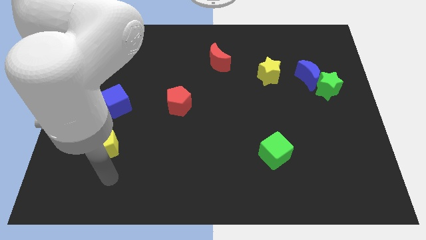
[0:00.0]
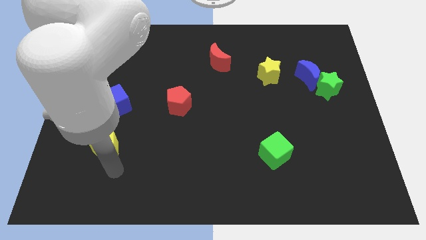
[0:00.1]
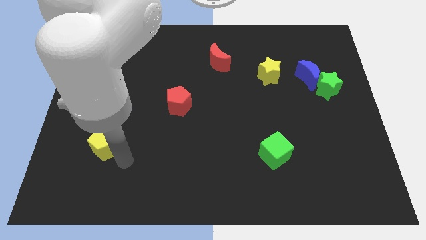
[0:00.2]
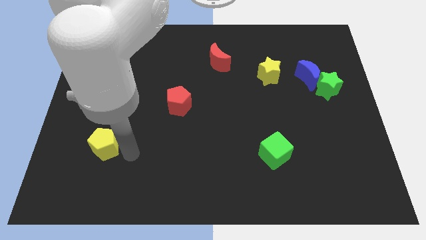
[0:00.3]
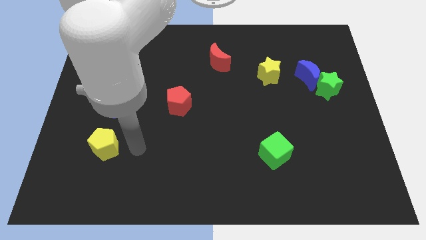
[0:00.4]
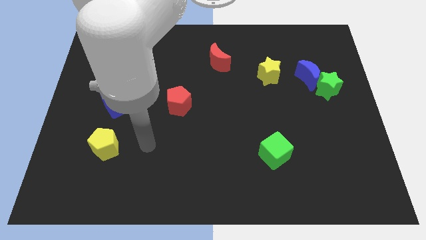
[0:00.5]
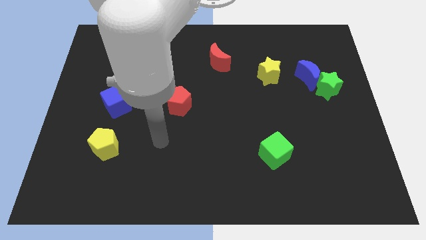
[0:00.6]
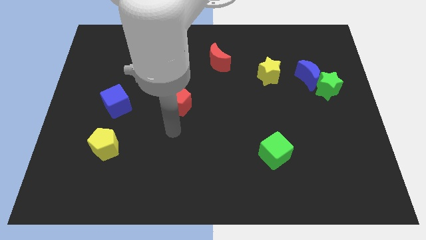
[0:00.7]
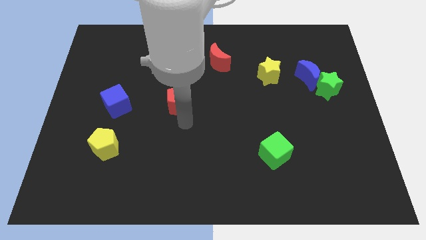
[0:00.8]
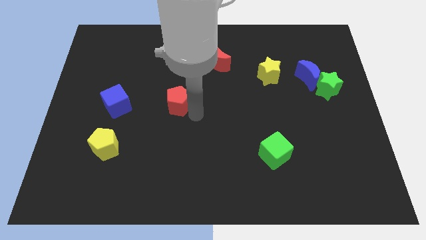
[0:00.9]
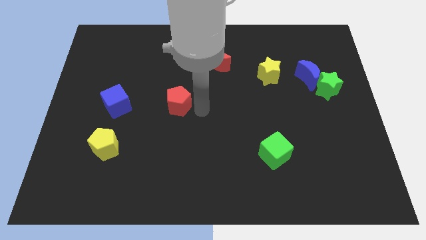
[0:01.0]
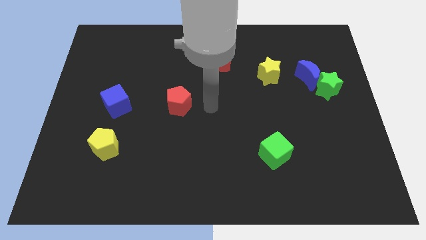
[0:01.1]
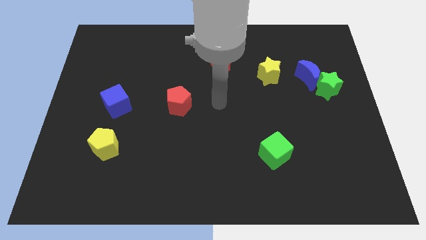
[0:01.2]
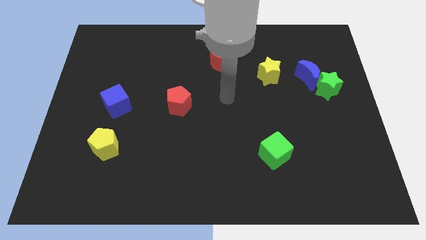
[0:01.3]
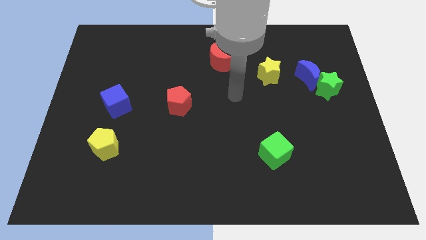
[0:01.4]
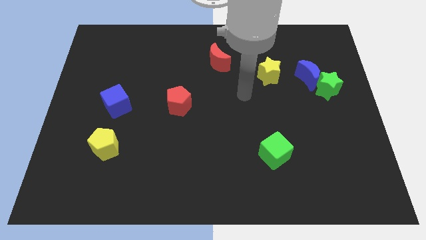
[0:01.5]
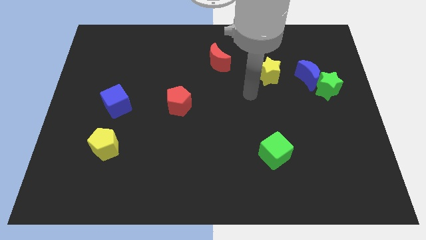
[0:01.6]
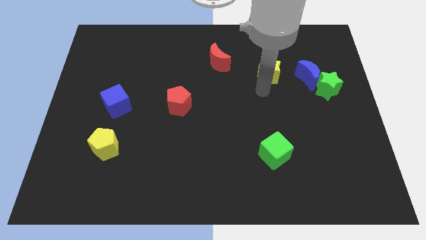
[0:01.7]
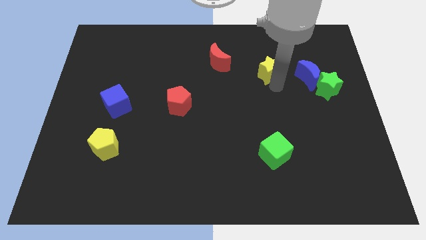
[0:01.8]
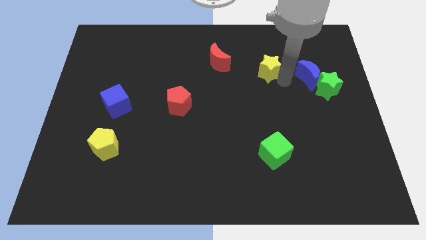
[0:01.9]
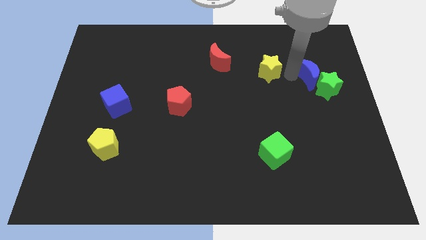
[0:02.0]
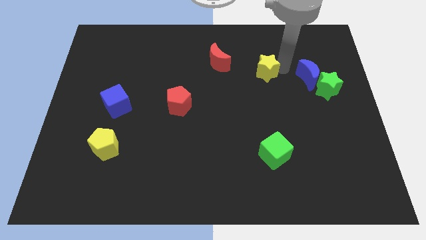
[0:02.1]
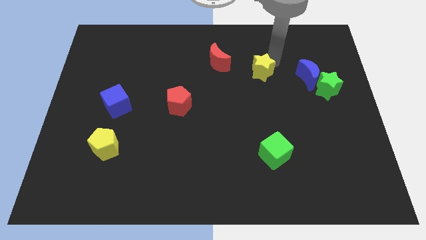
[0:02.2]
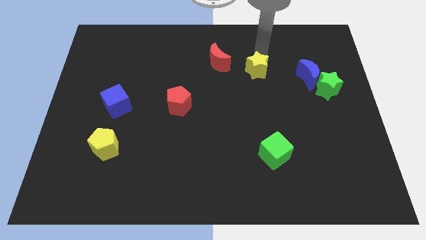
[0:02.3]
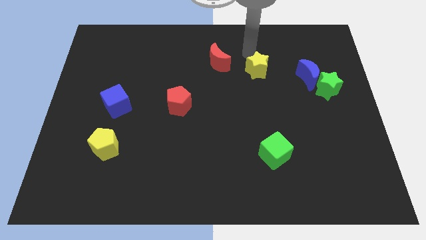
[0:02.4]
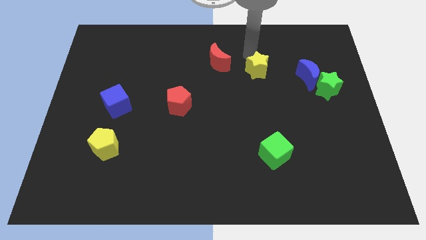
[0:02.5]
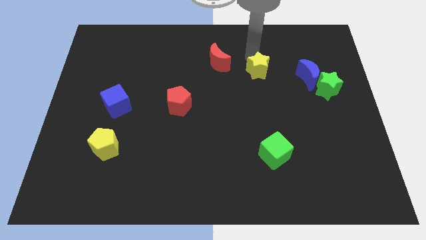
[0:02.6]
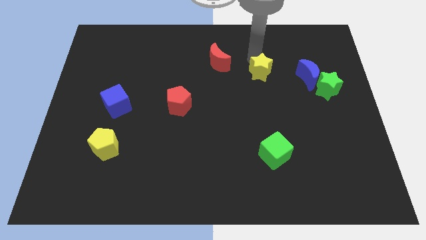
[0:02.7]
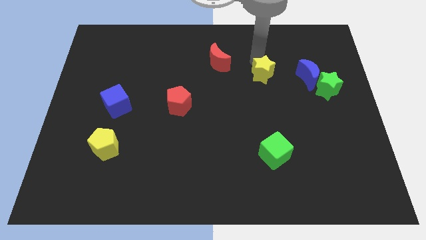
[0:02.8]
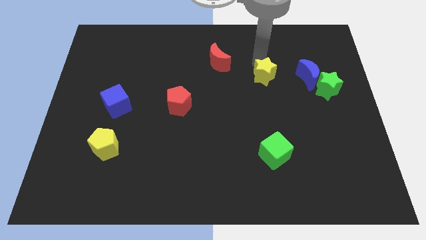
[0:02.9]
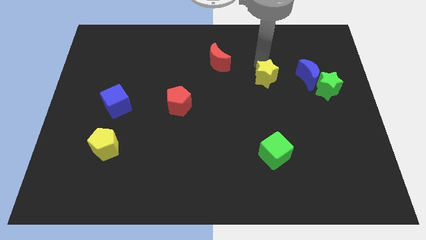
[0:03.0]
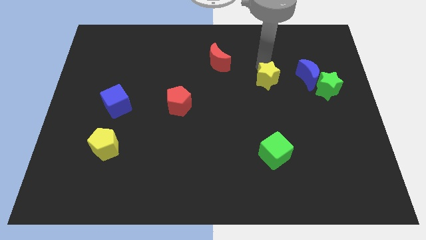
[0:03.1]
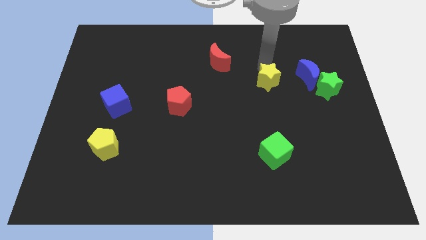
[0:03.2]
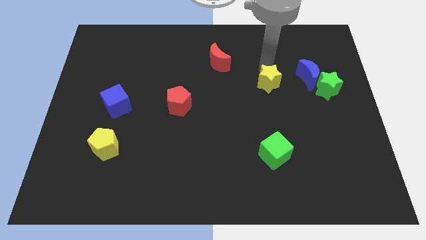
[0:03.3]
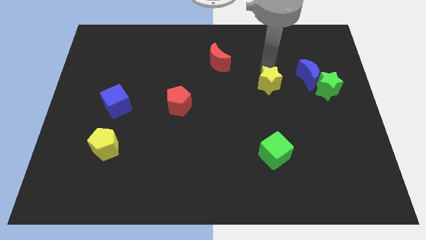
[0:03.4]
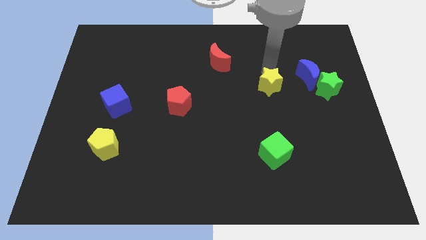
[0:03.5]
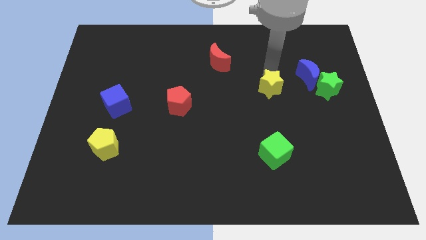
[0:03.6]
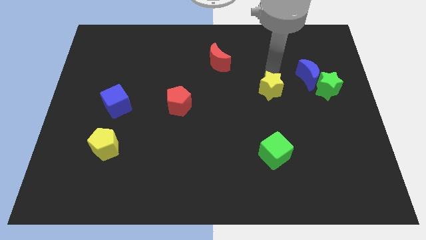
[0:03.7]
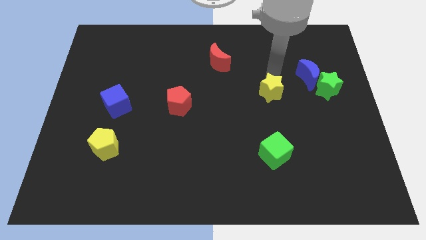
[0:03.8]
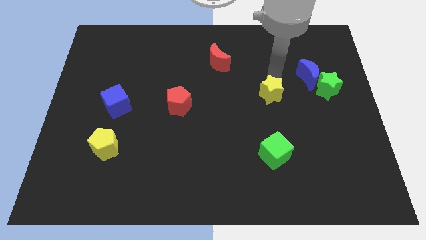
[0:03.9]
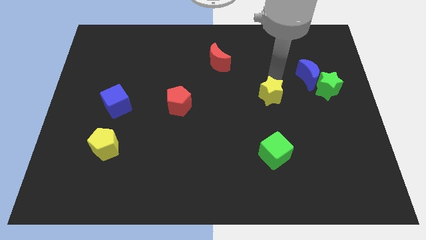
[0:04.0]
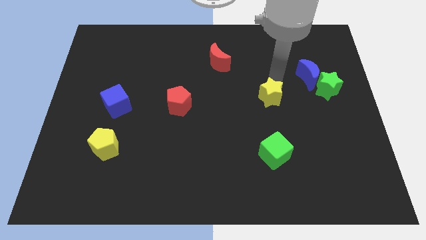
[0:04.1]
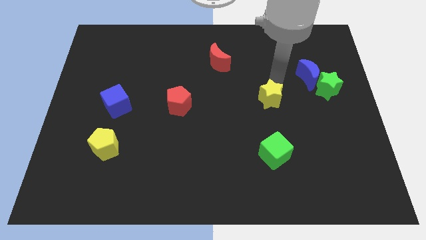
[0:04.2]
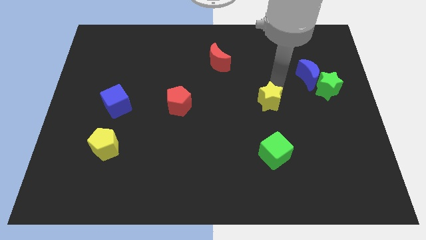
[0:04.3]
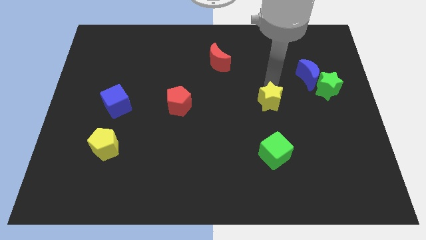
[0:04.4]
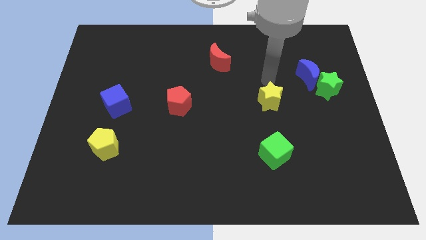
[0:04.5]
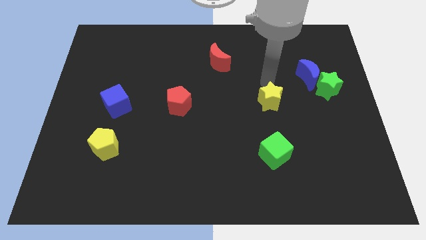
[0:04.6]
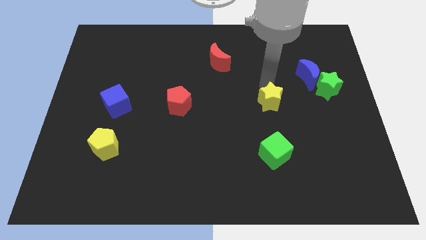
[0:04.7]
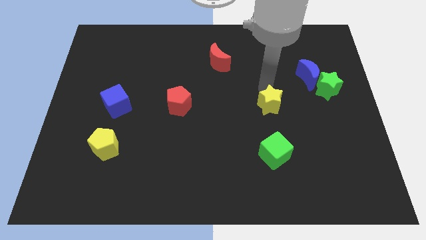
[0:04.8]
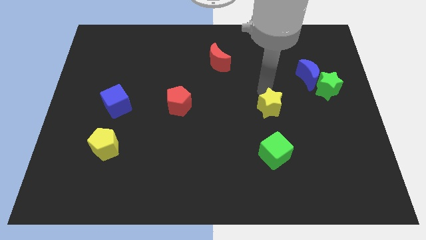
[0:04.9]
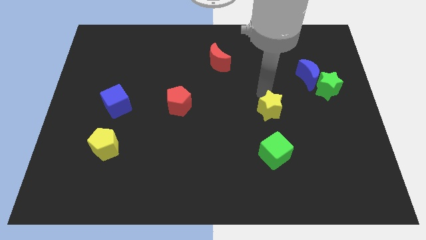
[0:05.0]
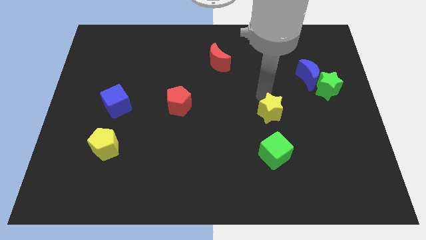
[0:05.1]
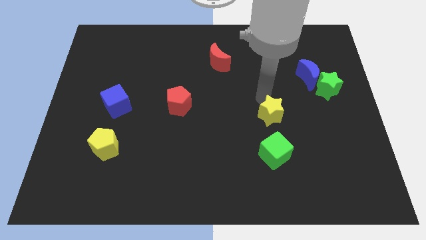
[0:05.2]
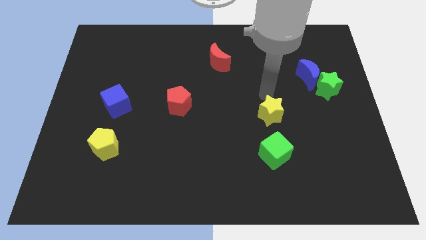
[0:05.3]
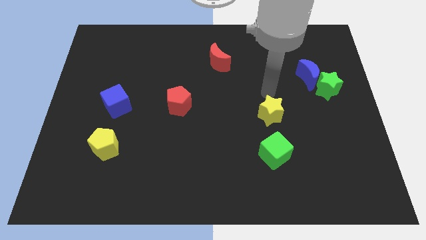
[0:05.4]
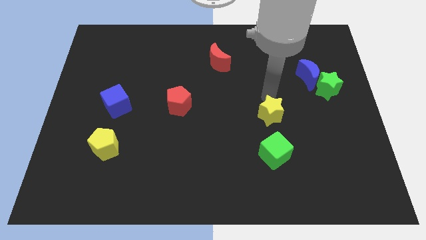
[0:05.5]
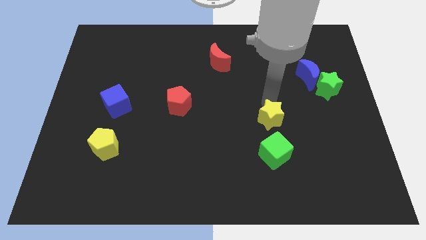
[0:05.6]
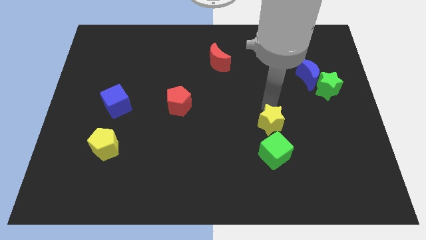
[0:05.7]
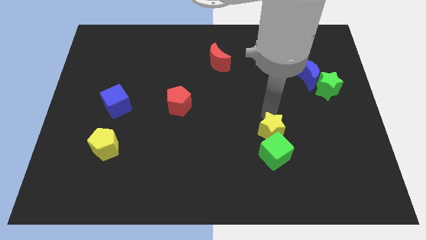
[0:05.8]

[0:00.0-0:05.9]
move the yellow star next to the green cube

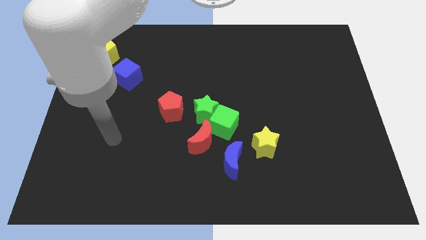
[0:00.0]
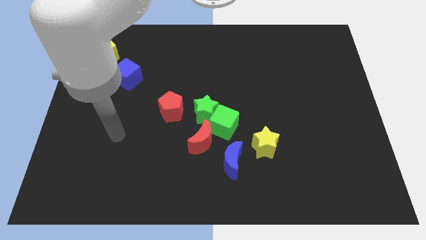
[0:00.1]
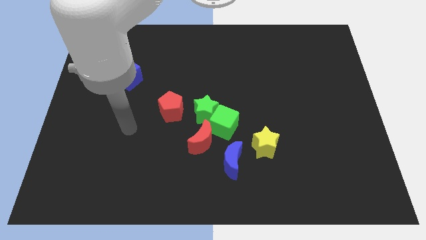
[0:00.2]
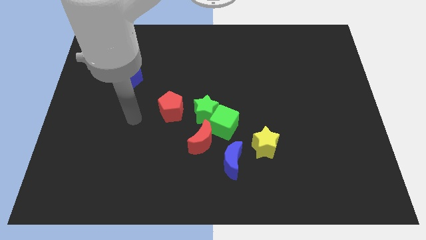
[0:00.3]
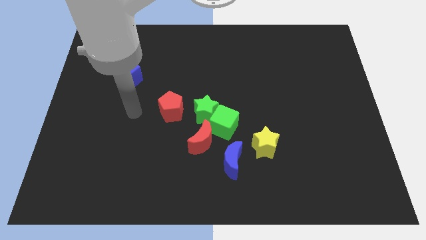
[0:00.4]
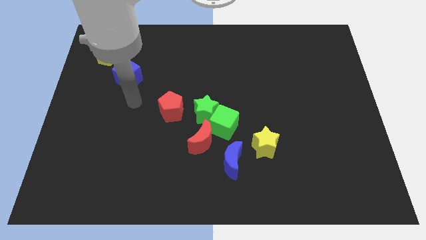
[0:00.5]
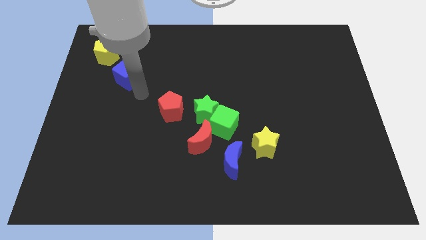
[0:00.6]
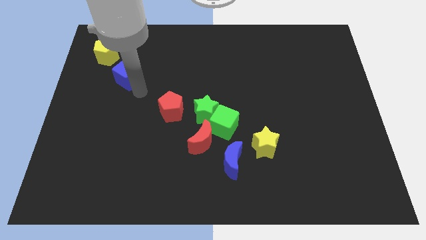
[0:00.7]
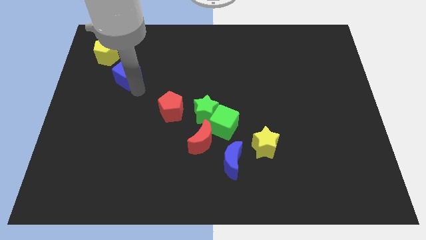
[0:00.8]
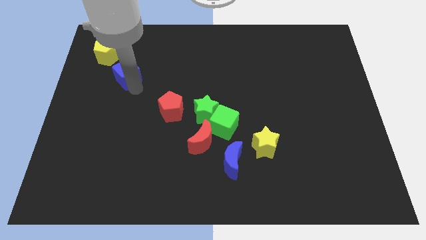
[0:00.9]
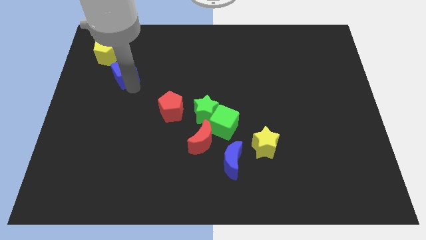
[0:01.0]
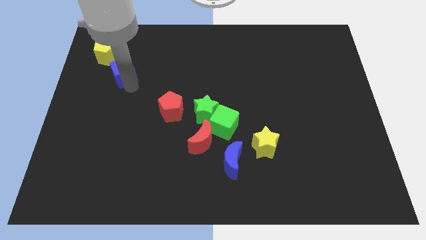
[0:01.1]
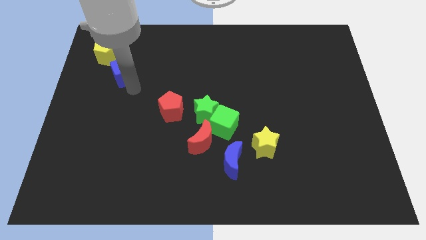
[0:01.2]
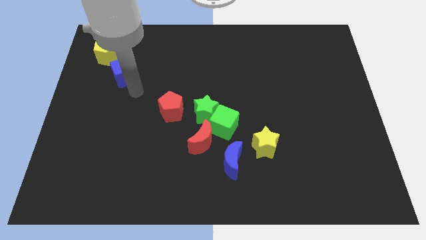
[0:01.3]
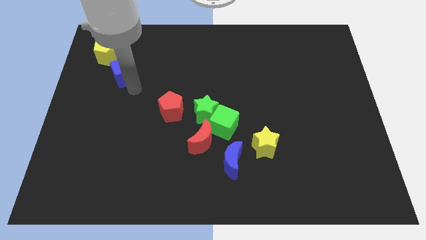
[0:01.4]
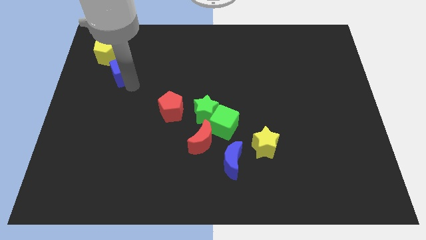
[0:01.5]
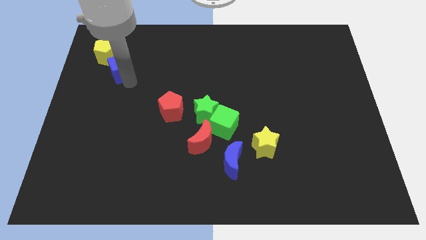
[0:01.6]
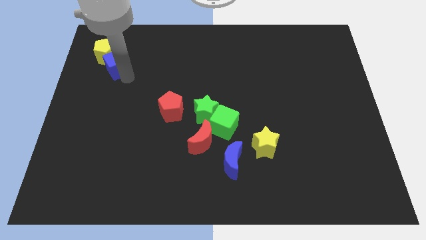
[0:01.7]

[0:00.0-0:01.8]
push the blue cube close to the yellow pentagon
